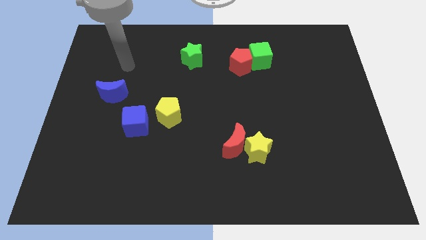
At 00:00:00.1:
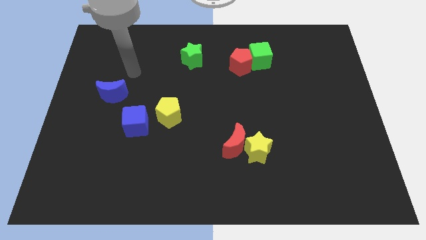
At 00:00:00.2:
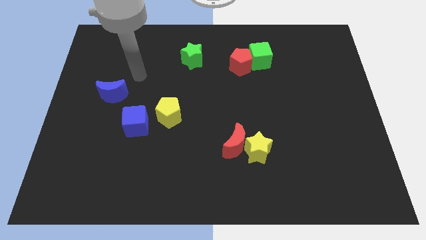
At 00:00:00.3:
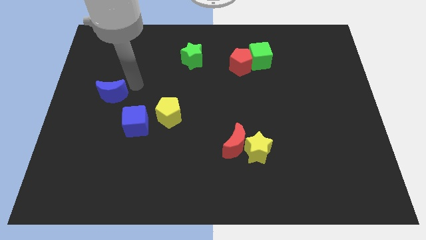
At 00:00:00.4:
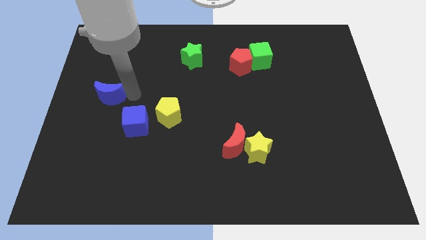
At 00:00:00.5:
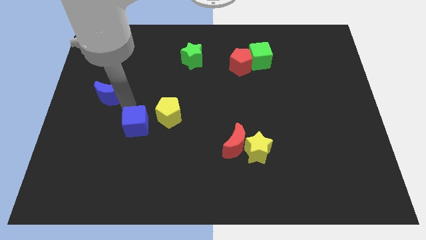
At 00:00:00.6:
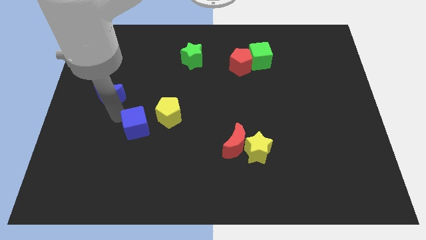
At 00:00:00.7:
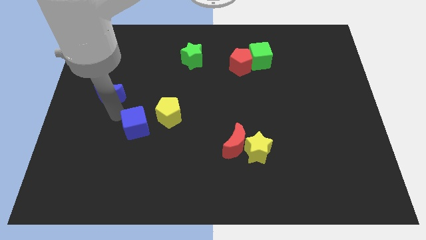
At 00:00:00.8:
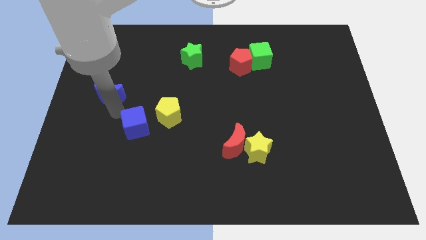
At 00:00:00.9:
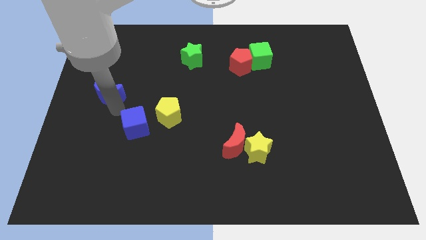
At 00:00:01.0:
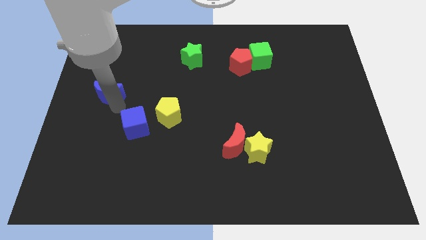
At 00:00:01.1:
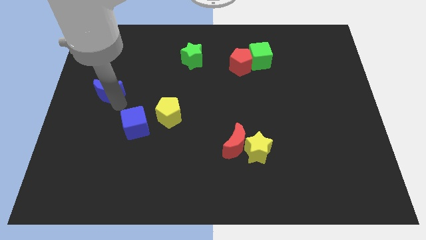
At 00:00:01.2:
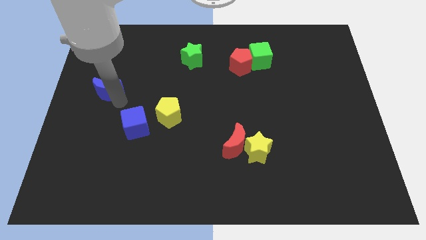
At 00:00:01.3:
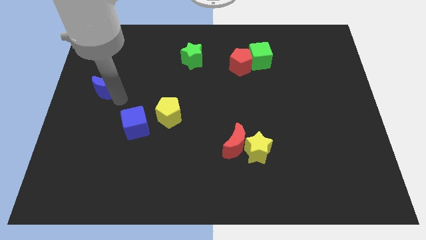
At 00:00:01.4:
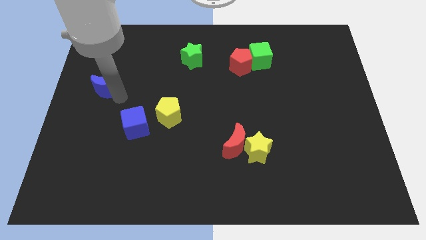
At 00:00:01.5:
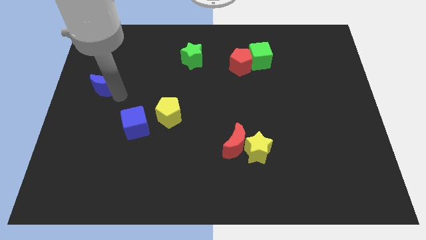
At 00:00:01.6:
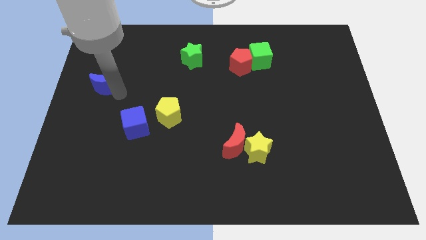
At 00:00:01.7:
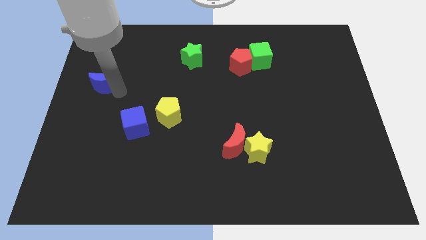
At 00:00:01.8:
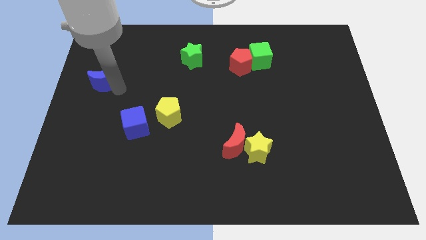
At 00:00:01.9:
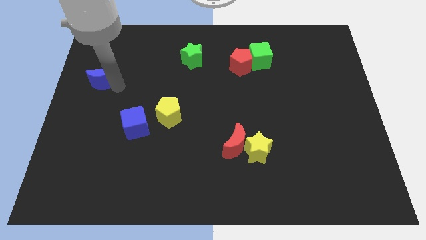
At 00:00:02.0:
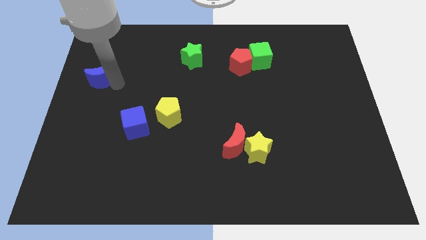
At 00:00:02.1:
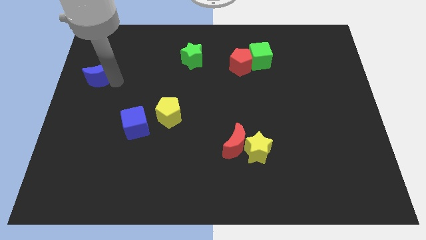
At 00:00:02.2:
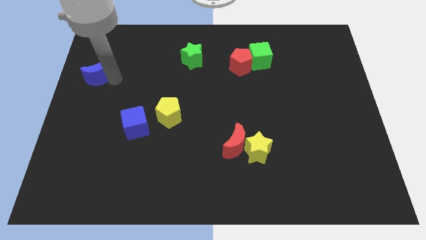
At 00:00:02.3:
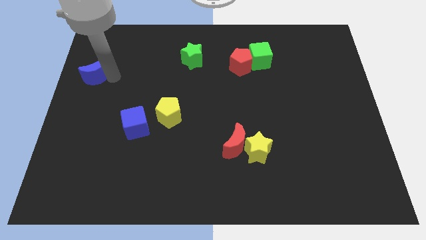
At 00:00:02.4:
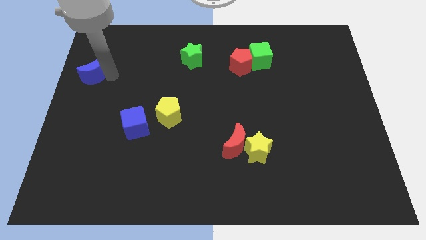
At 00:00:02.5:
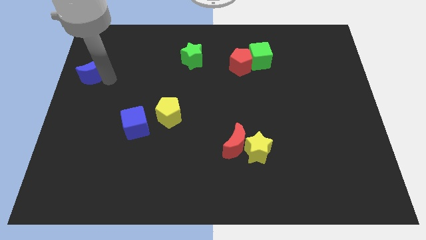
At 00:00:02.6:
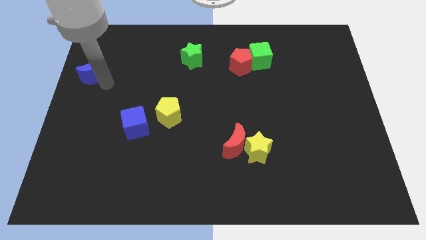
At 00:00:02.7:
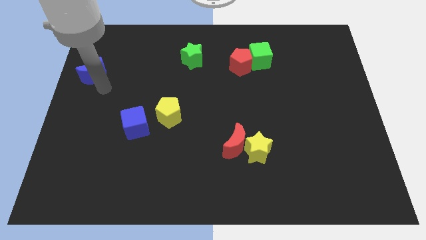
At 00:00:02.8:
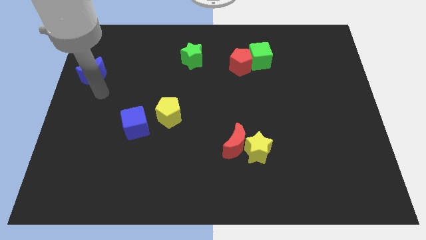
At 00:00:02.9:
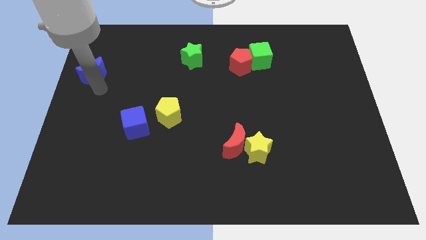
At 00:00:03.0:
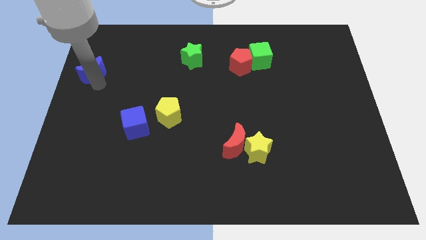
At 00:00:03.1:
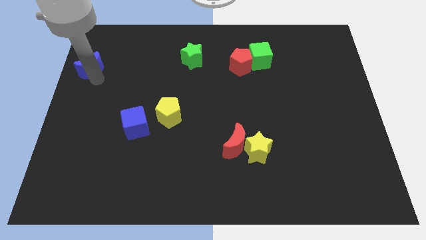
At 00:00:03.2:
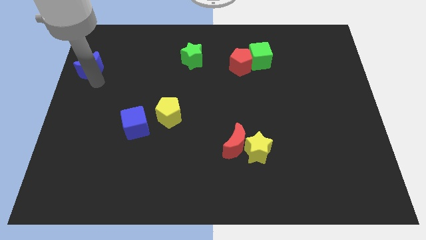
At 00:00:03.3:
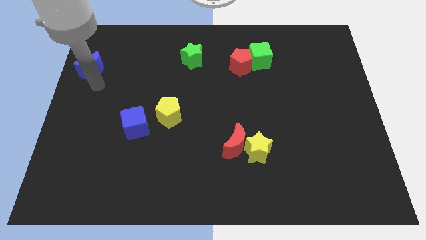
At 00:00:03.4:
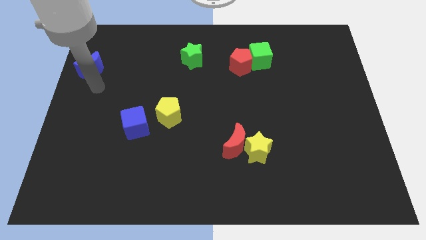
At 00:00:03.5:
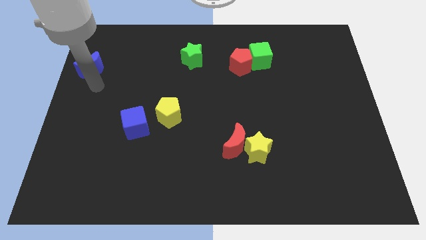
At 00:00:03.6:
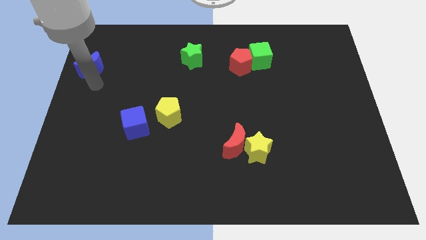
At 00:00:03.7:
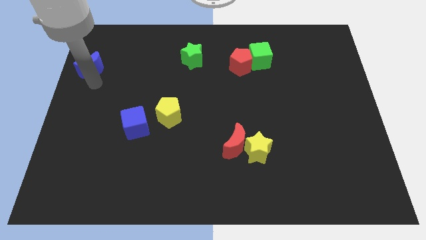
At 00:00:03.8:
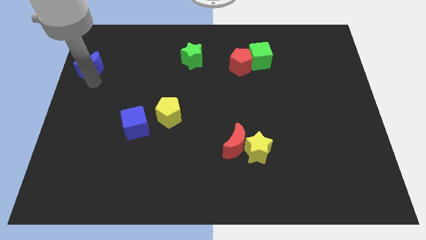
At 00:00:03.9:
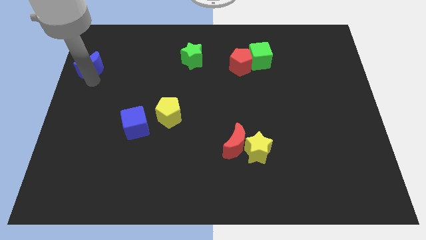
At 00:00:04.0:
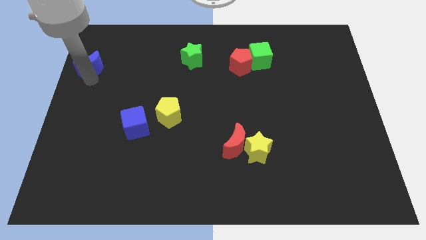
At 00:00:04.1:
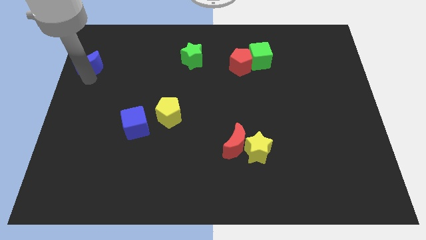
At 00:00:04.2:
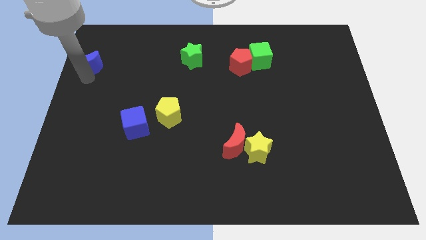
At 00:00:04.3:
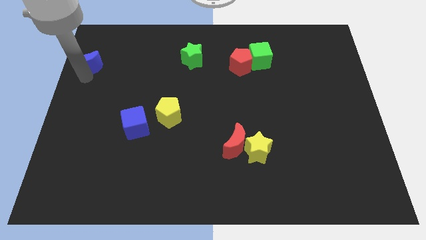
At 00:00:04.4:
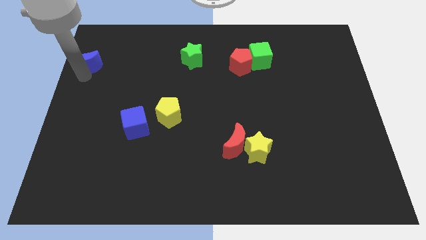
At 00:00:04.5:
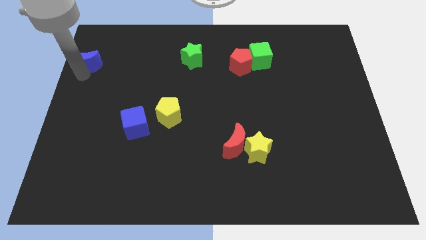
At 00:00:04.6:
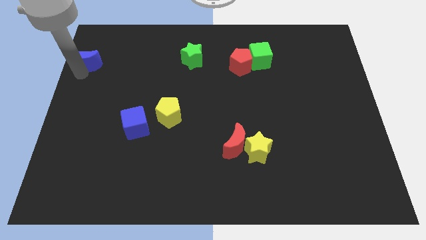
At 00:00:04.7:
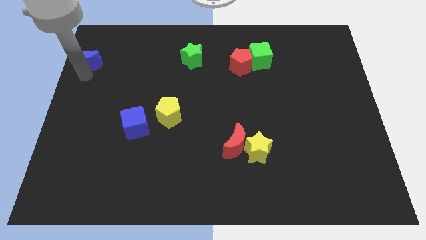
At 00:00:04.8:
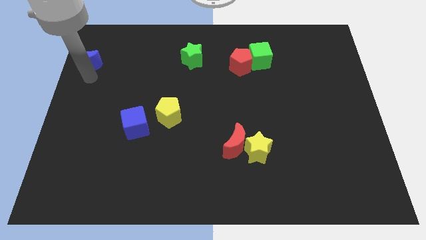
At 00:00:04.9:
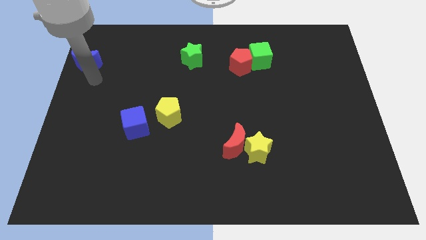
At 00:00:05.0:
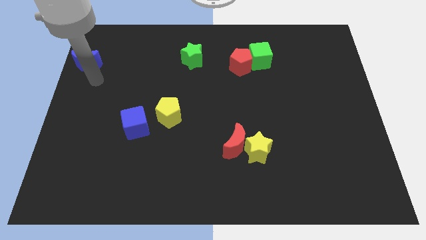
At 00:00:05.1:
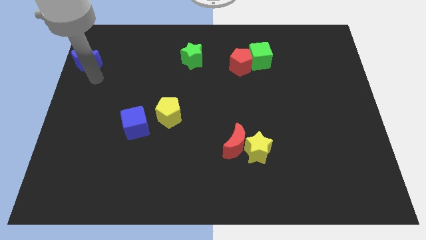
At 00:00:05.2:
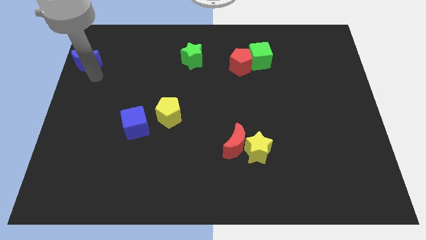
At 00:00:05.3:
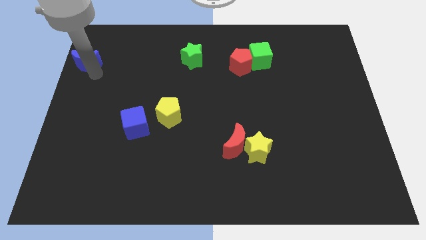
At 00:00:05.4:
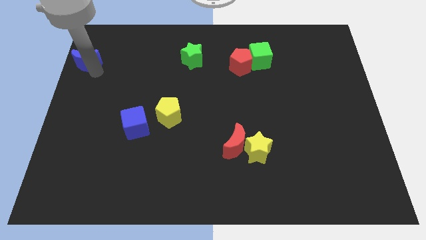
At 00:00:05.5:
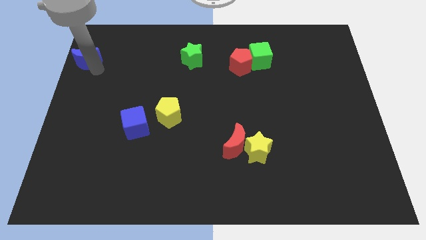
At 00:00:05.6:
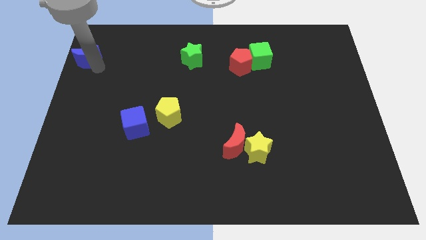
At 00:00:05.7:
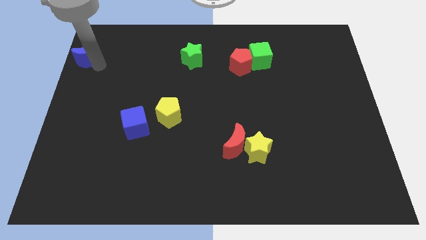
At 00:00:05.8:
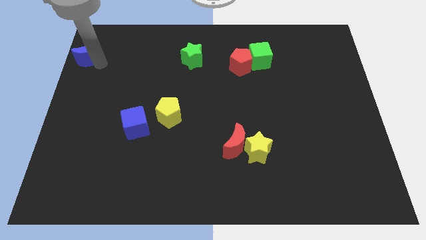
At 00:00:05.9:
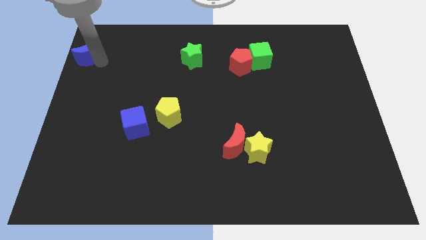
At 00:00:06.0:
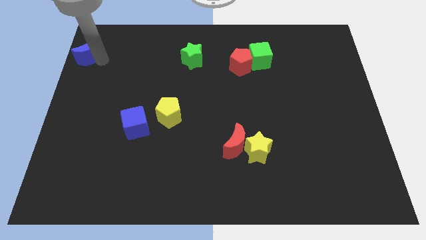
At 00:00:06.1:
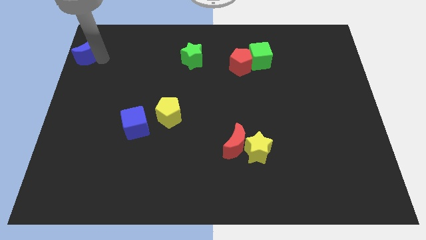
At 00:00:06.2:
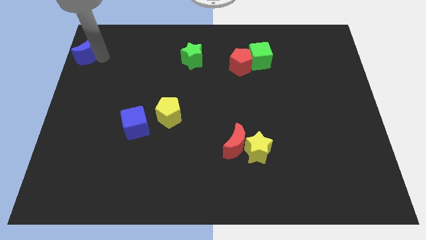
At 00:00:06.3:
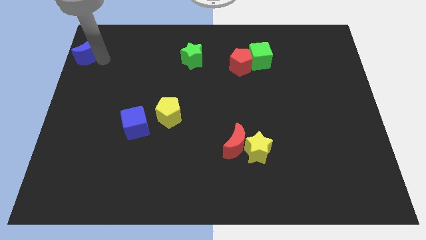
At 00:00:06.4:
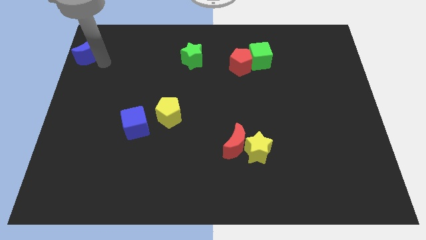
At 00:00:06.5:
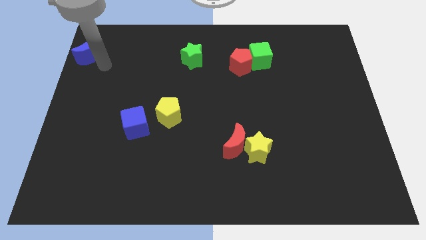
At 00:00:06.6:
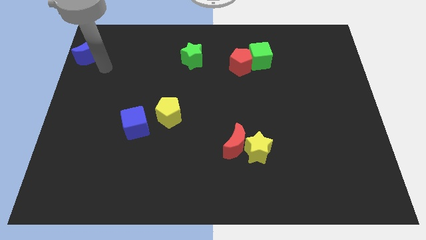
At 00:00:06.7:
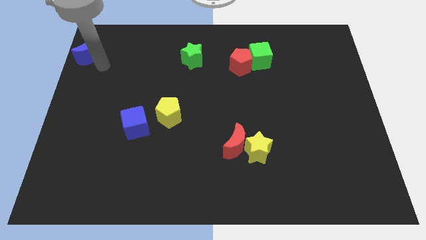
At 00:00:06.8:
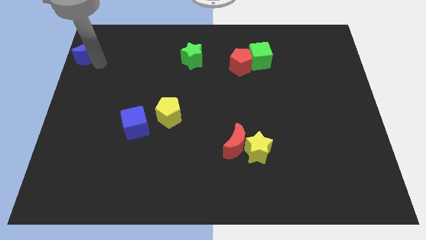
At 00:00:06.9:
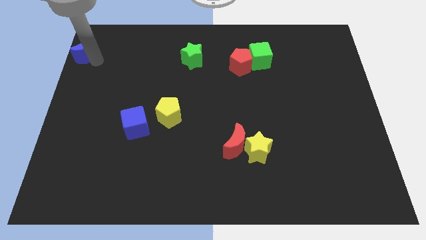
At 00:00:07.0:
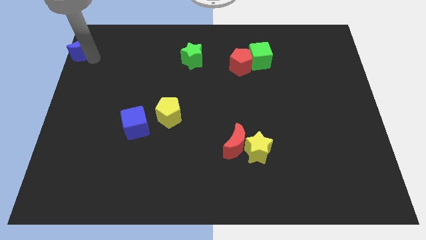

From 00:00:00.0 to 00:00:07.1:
slide the blue moon to the top left of the board
